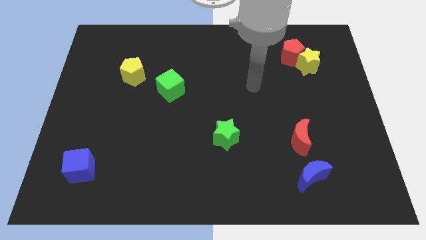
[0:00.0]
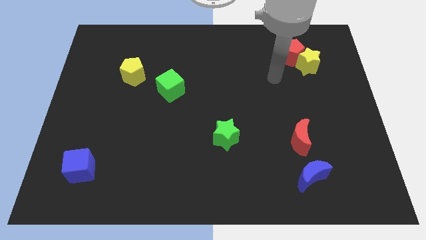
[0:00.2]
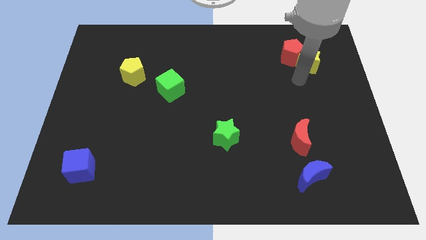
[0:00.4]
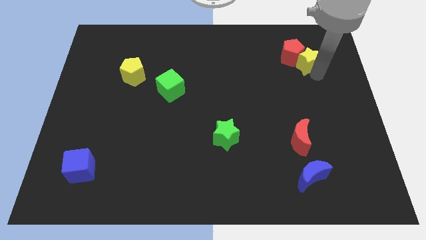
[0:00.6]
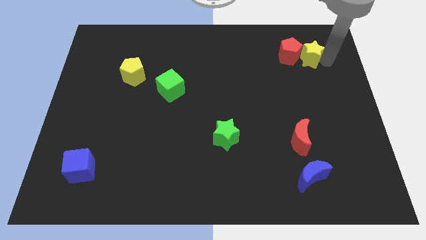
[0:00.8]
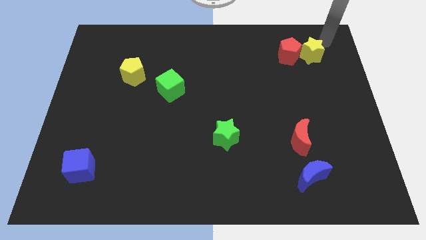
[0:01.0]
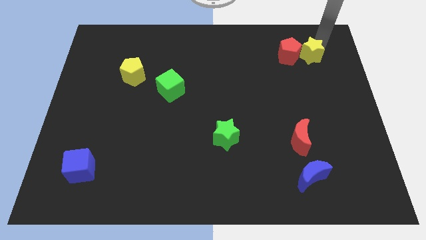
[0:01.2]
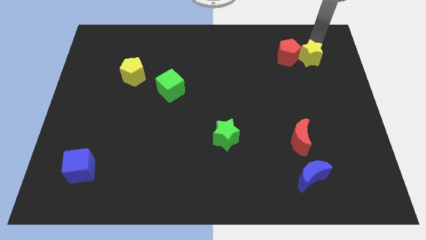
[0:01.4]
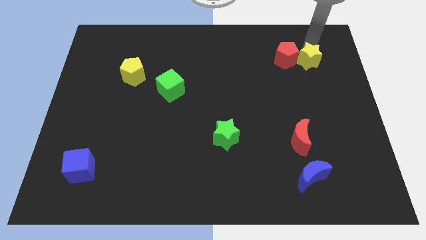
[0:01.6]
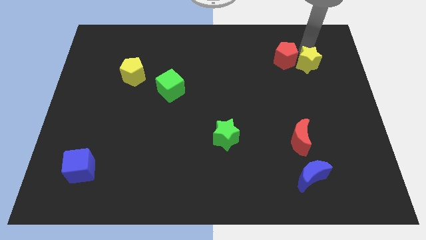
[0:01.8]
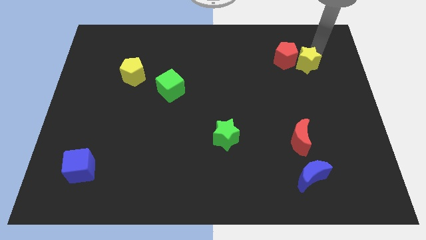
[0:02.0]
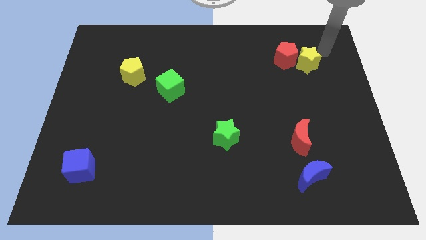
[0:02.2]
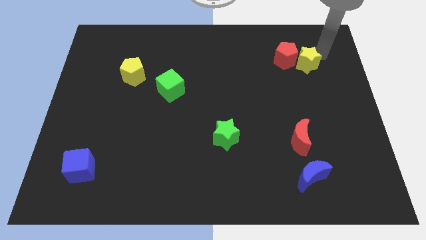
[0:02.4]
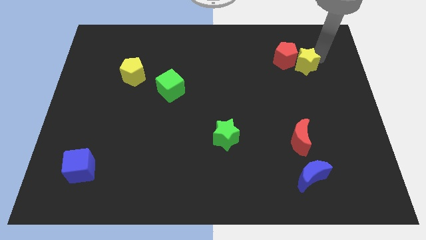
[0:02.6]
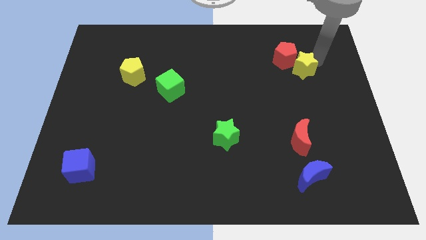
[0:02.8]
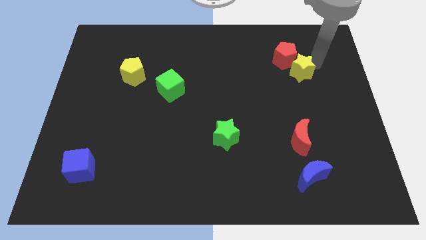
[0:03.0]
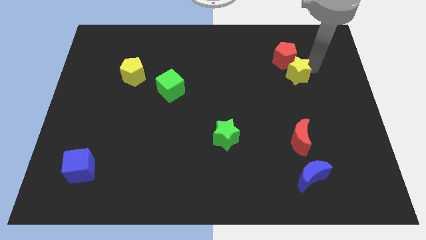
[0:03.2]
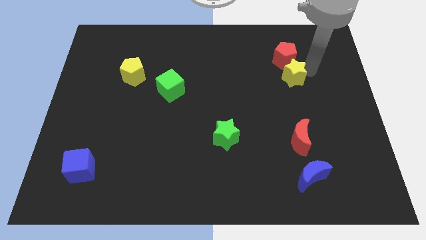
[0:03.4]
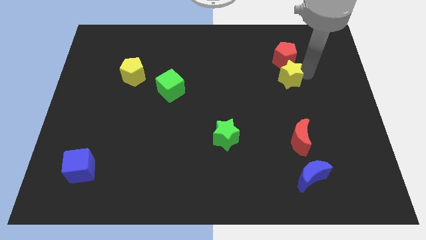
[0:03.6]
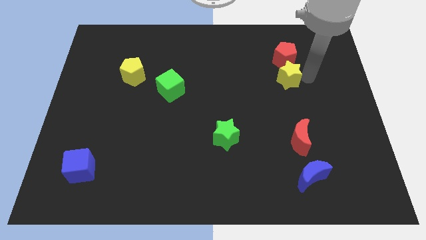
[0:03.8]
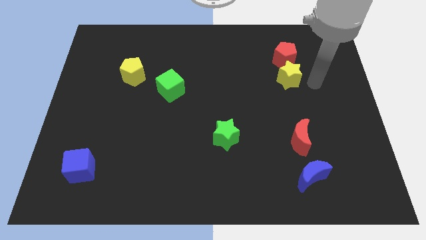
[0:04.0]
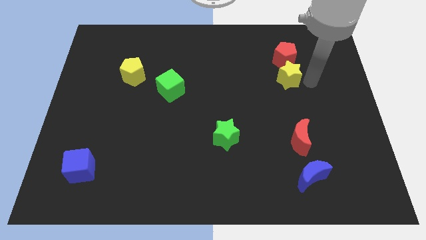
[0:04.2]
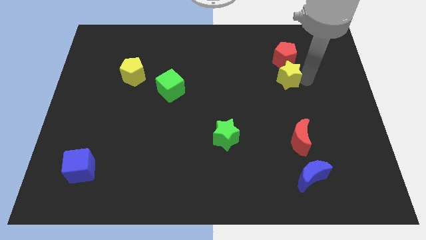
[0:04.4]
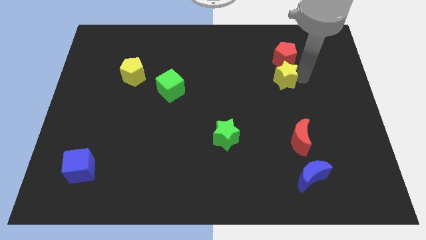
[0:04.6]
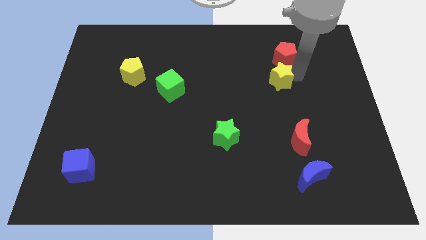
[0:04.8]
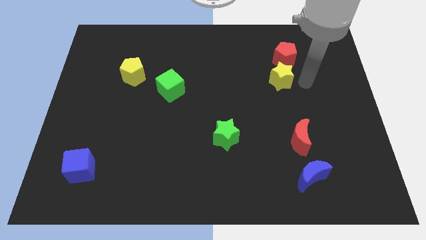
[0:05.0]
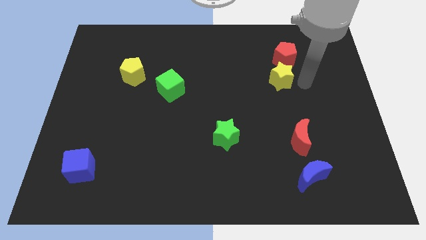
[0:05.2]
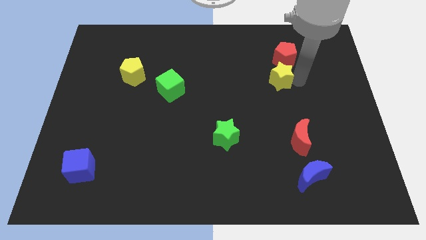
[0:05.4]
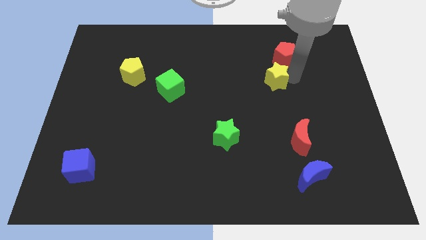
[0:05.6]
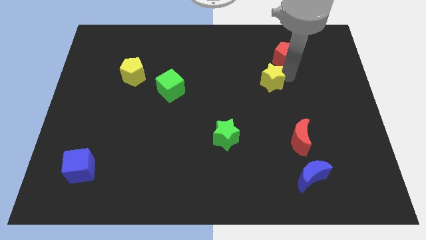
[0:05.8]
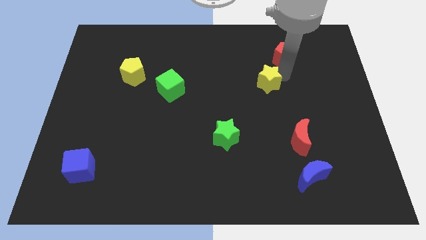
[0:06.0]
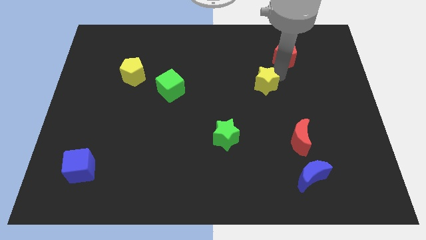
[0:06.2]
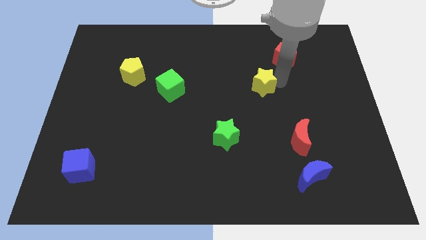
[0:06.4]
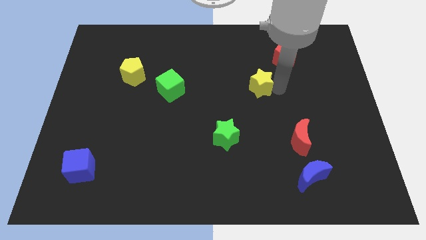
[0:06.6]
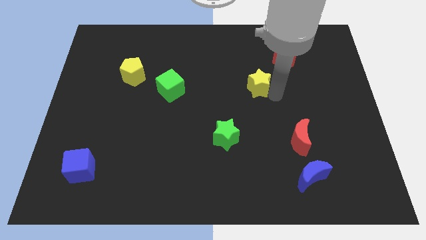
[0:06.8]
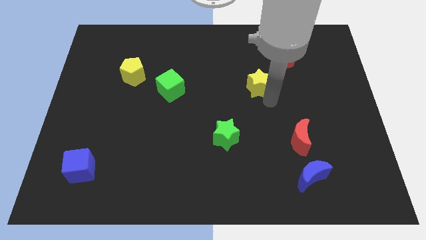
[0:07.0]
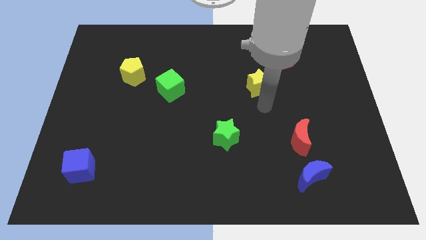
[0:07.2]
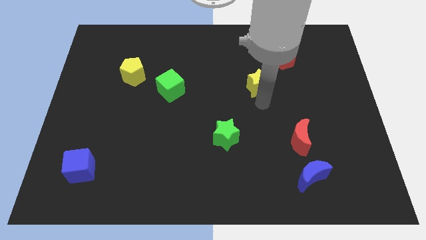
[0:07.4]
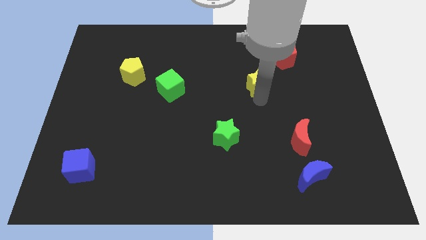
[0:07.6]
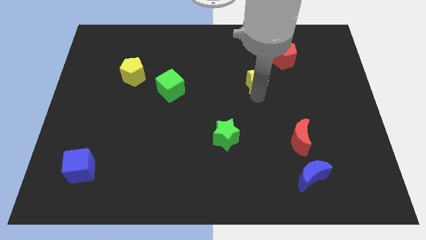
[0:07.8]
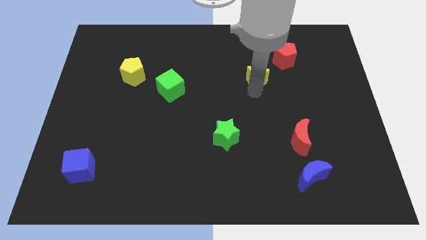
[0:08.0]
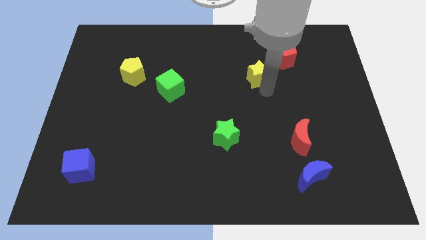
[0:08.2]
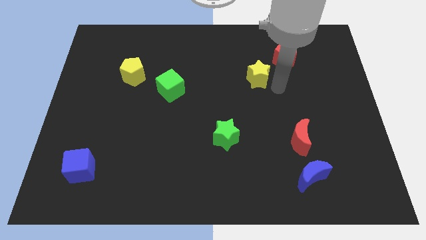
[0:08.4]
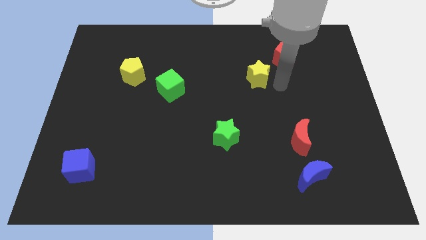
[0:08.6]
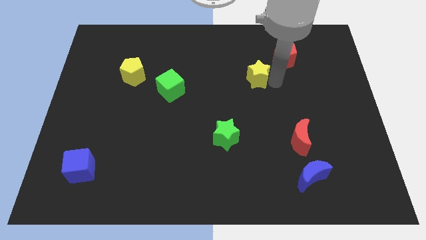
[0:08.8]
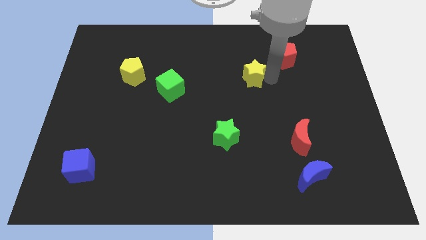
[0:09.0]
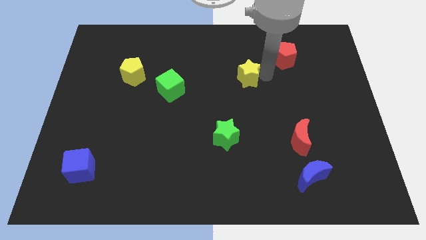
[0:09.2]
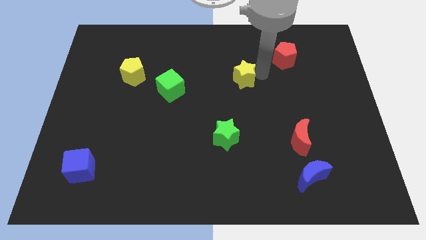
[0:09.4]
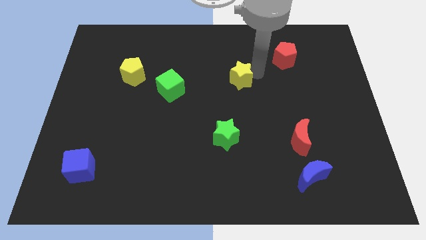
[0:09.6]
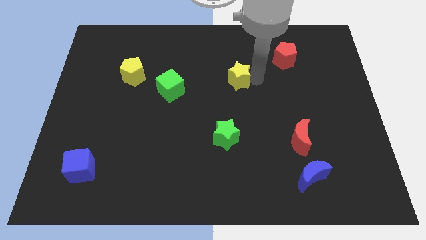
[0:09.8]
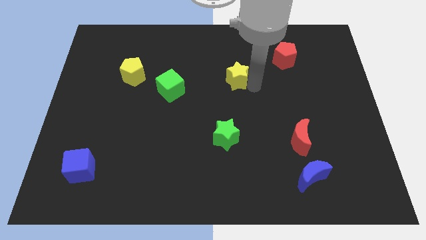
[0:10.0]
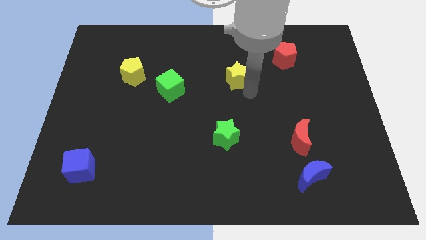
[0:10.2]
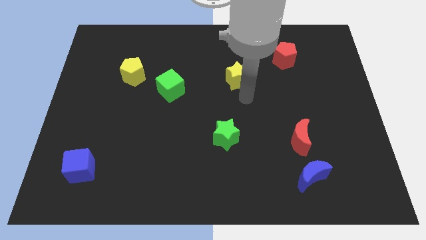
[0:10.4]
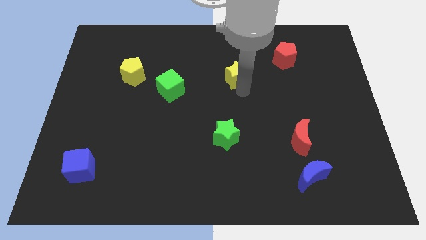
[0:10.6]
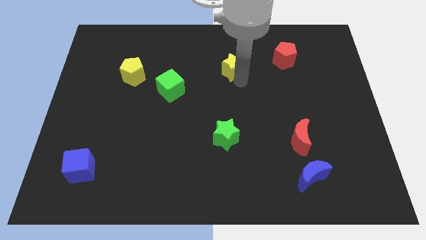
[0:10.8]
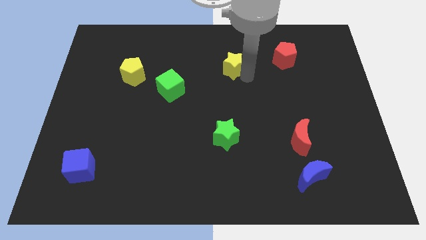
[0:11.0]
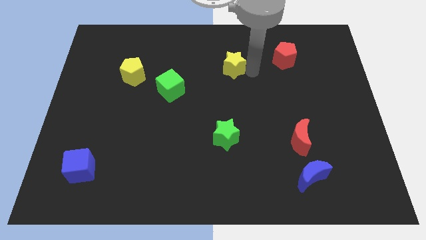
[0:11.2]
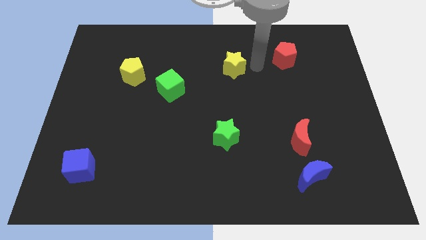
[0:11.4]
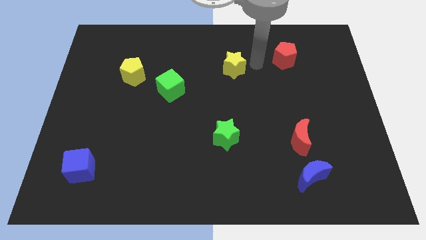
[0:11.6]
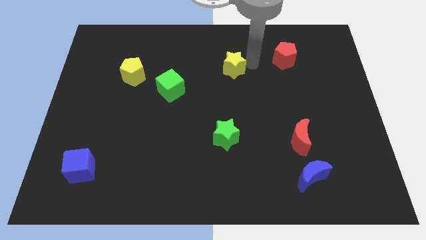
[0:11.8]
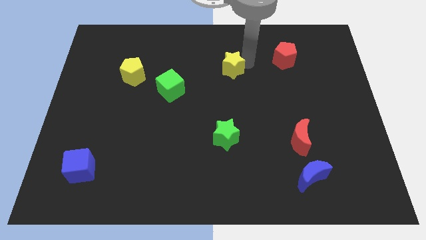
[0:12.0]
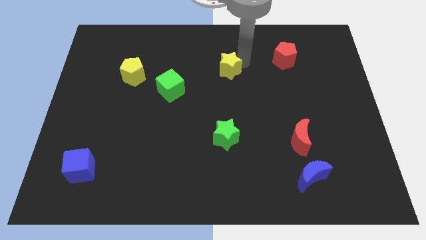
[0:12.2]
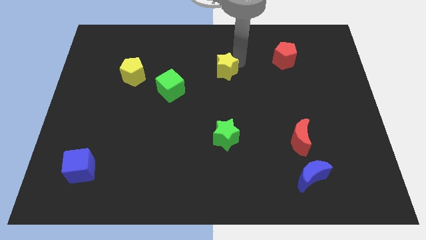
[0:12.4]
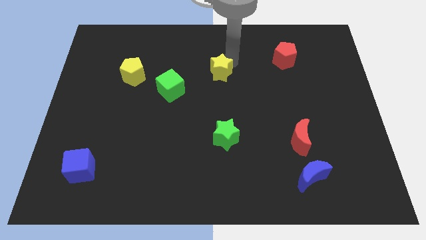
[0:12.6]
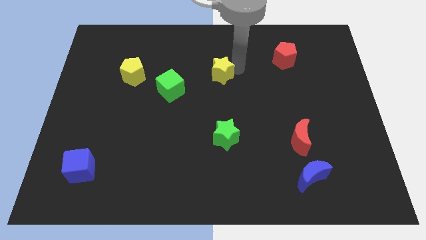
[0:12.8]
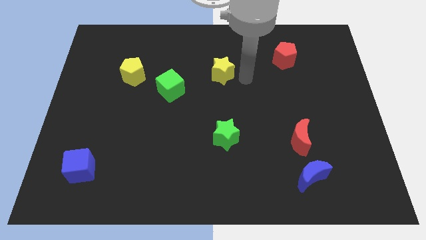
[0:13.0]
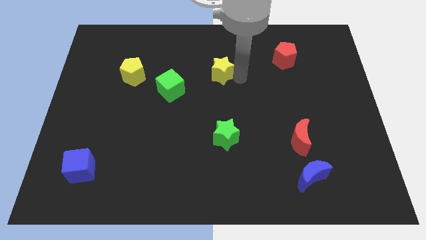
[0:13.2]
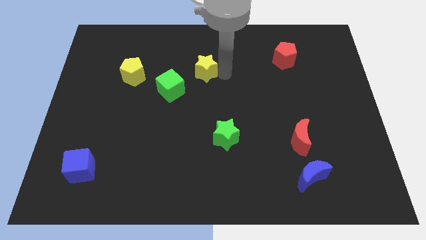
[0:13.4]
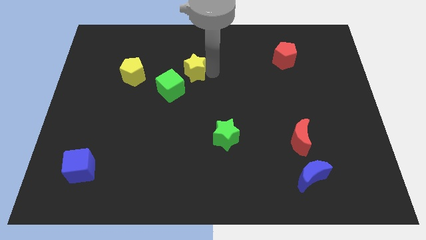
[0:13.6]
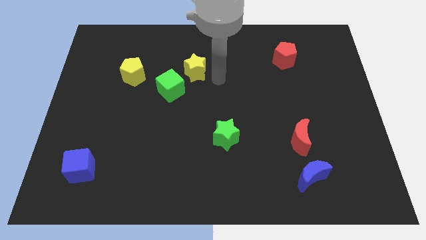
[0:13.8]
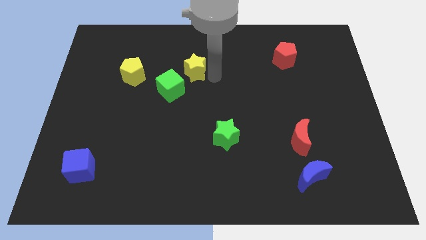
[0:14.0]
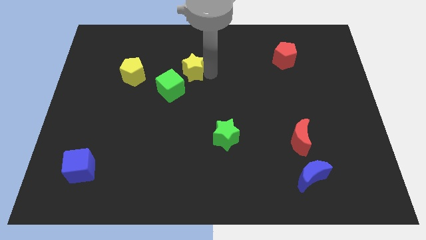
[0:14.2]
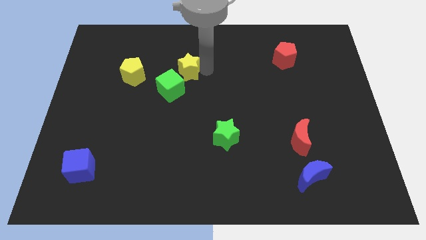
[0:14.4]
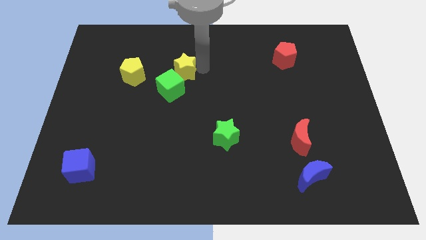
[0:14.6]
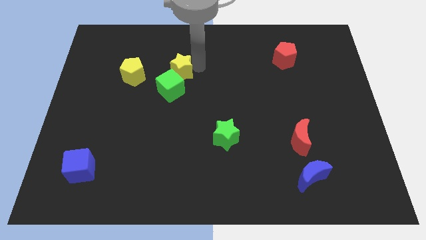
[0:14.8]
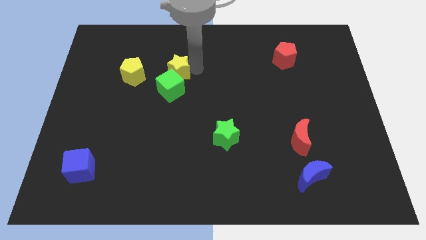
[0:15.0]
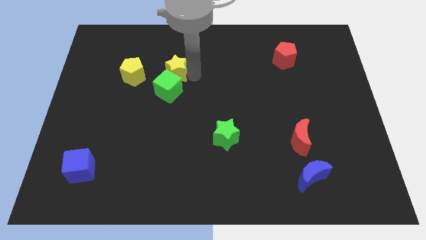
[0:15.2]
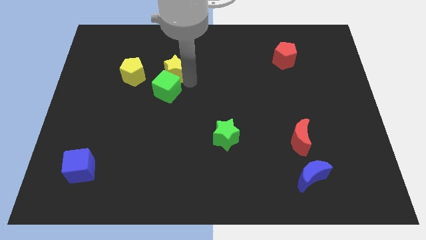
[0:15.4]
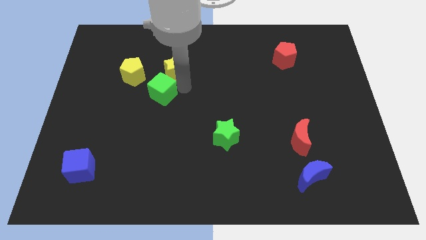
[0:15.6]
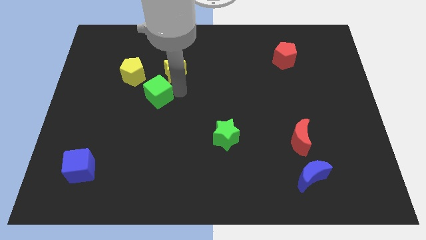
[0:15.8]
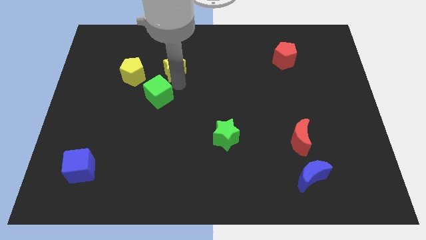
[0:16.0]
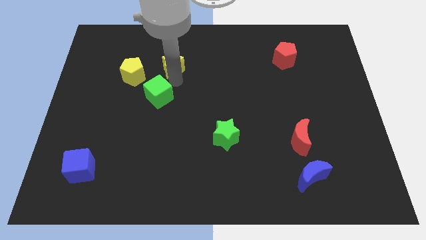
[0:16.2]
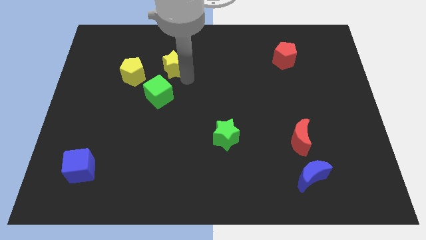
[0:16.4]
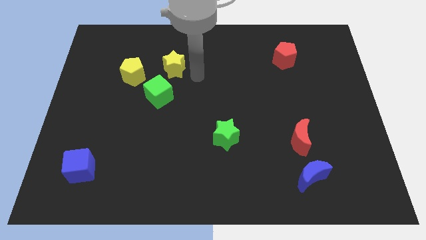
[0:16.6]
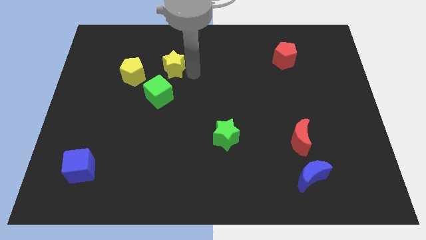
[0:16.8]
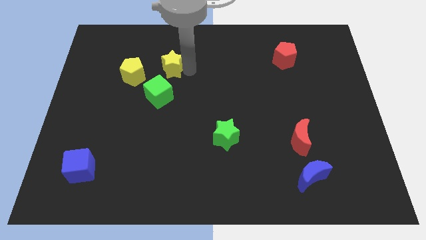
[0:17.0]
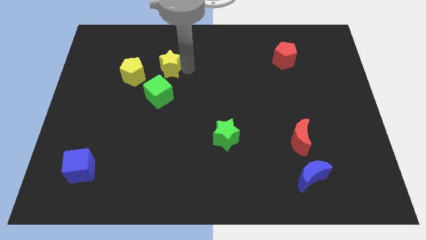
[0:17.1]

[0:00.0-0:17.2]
move the yellow star diagonally up and to the right of the yellow pentagon
